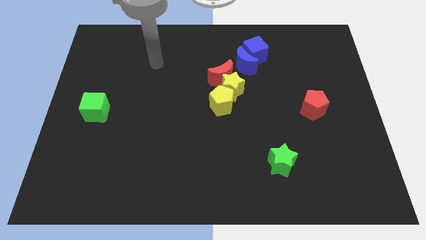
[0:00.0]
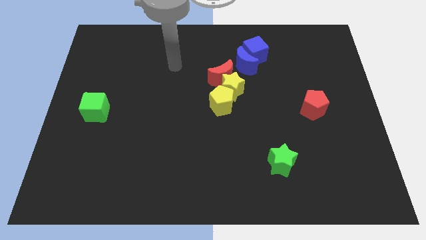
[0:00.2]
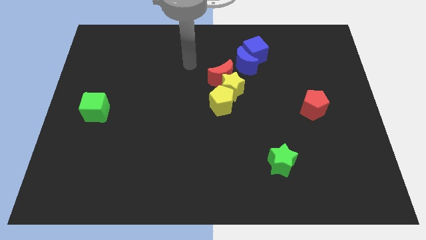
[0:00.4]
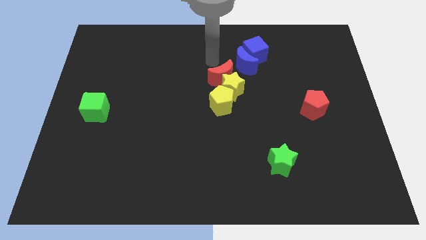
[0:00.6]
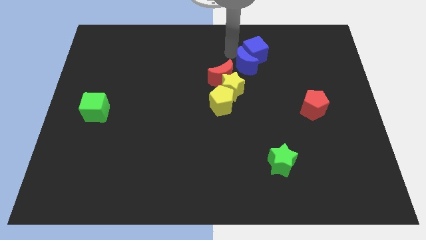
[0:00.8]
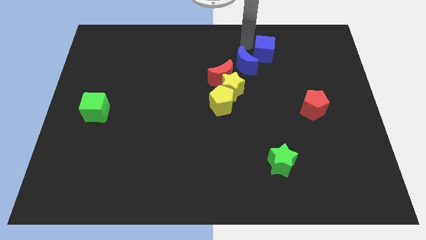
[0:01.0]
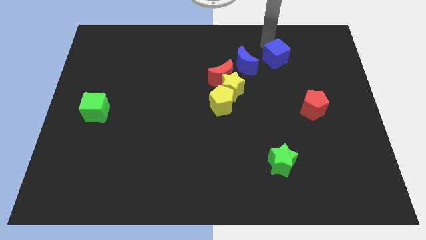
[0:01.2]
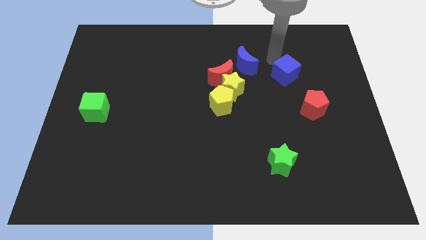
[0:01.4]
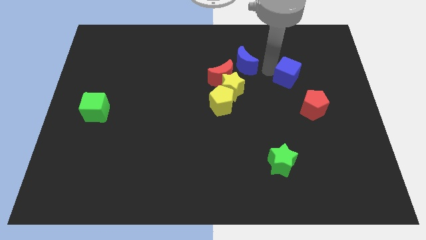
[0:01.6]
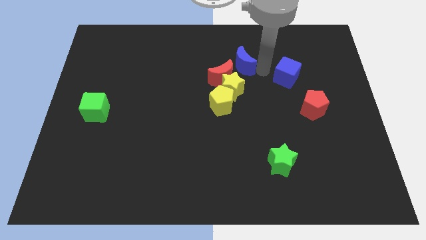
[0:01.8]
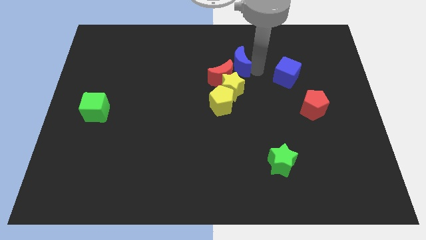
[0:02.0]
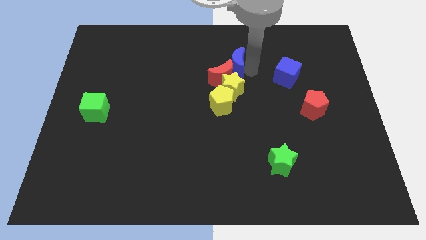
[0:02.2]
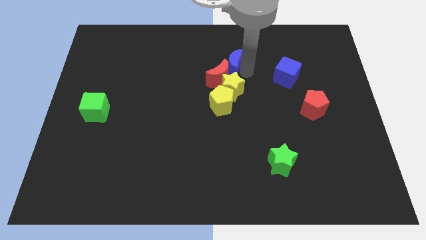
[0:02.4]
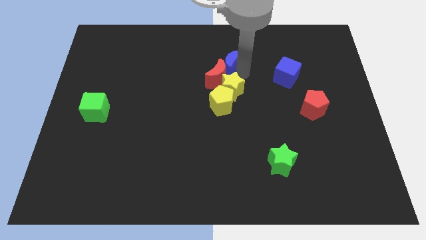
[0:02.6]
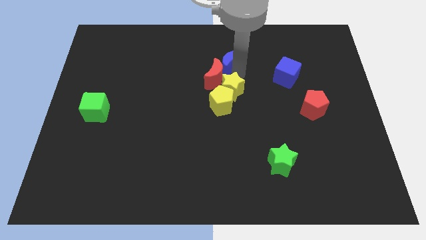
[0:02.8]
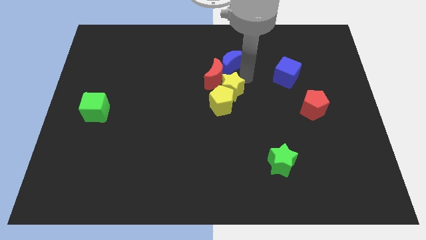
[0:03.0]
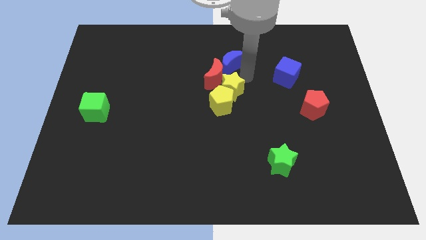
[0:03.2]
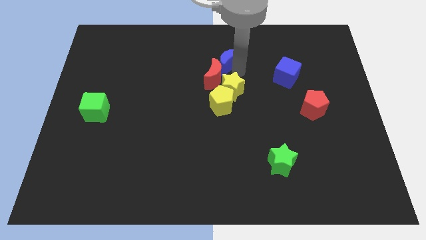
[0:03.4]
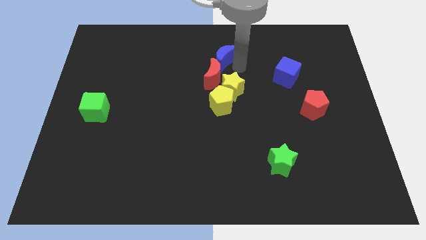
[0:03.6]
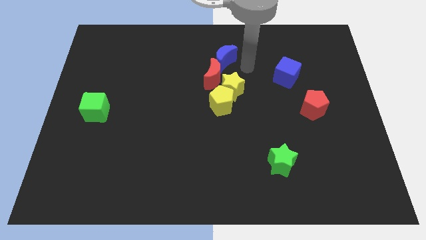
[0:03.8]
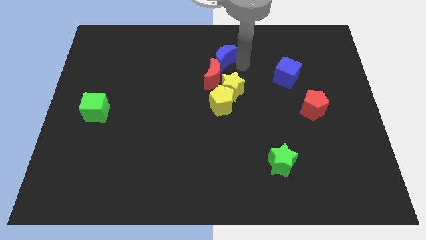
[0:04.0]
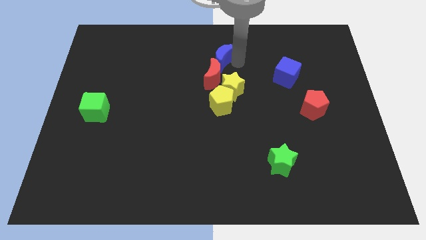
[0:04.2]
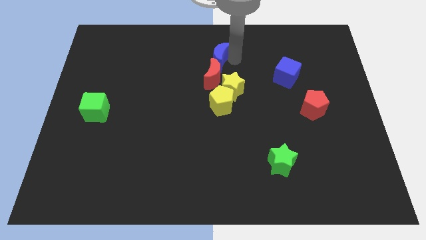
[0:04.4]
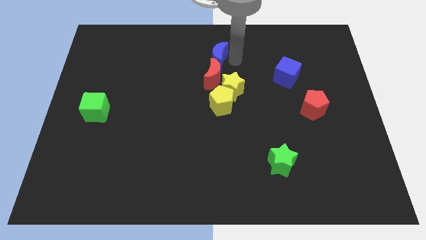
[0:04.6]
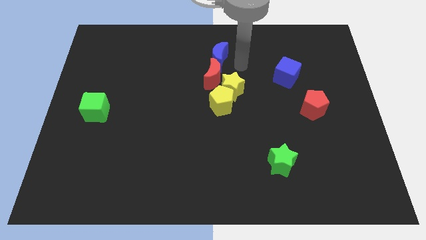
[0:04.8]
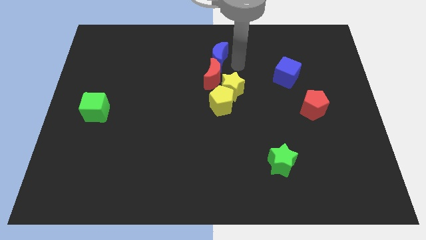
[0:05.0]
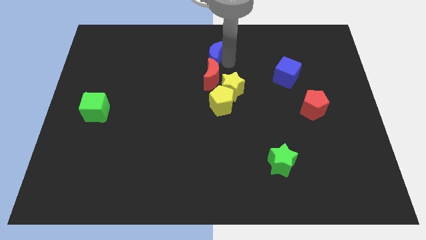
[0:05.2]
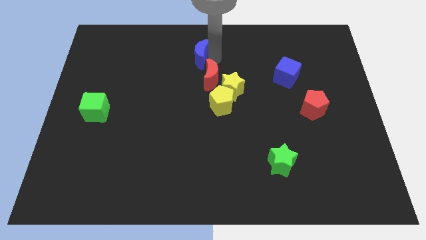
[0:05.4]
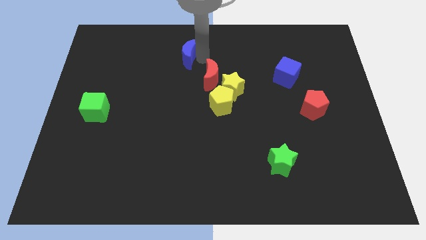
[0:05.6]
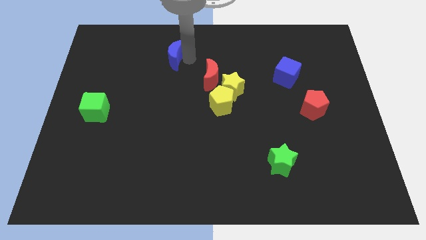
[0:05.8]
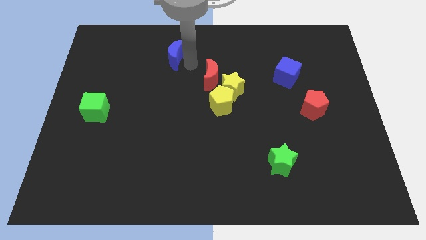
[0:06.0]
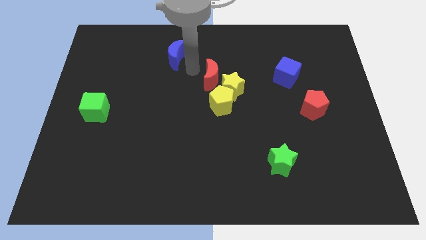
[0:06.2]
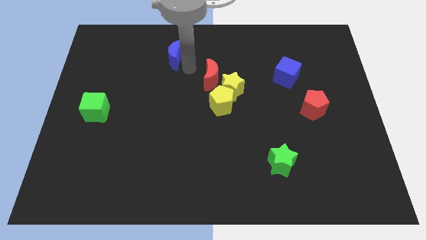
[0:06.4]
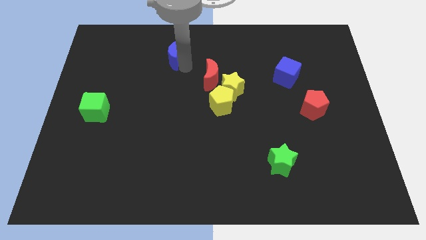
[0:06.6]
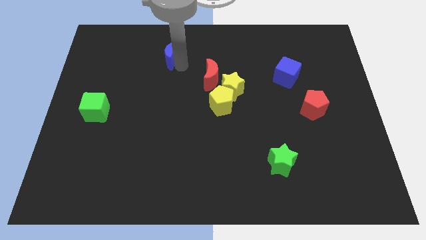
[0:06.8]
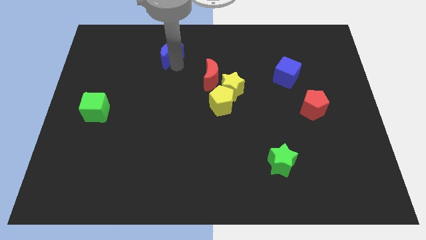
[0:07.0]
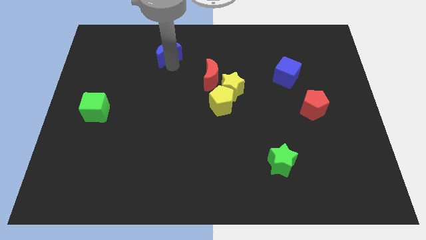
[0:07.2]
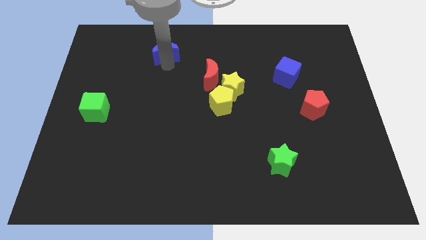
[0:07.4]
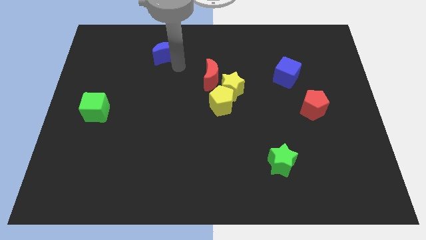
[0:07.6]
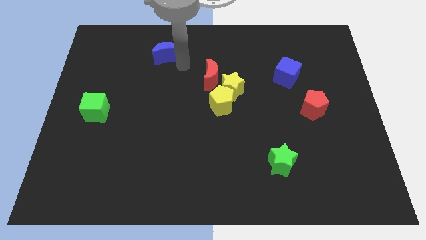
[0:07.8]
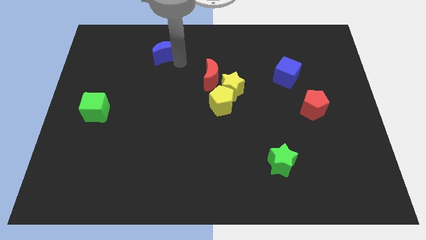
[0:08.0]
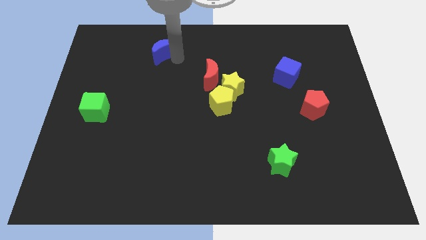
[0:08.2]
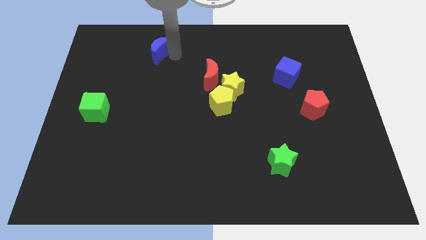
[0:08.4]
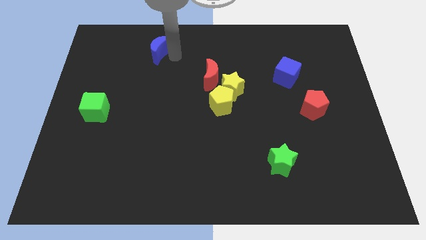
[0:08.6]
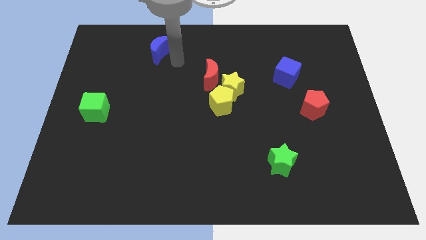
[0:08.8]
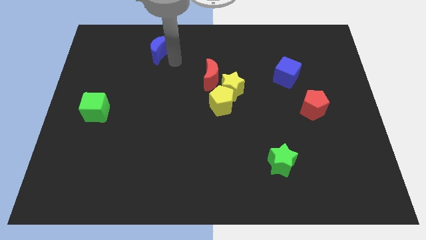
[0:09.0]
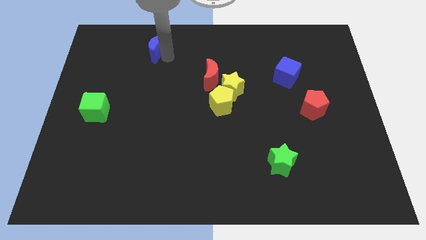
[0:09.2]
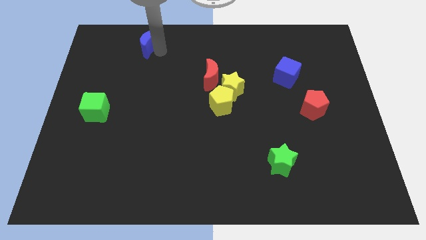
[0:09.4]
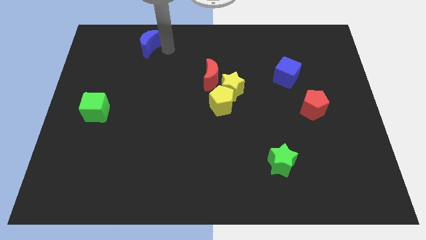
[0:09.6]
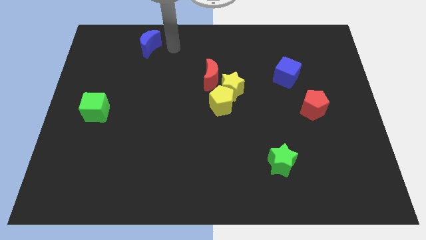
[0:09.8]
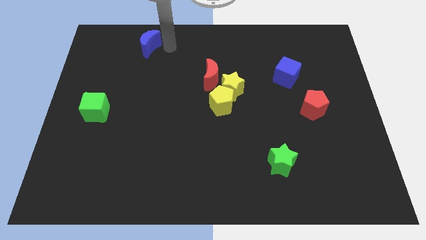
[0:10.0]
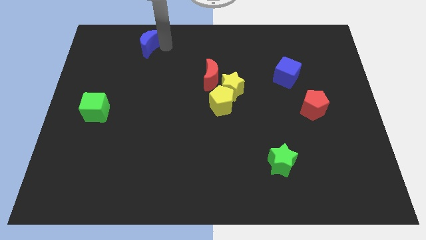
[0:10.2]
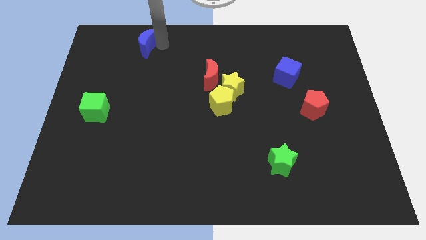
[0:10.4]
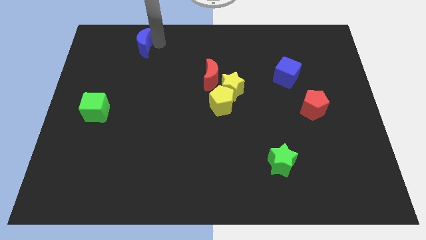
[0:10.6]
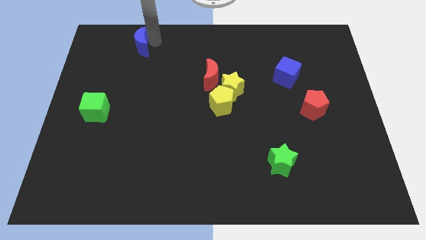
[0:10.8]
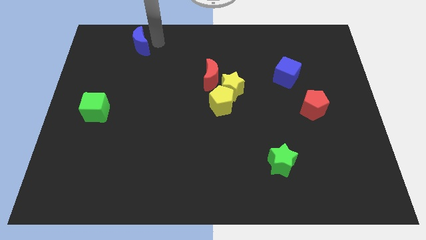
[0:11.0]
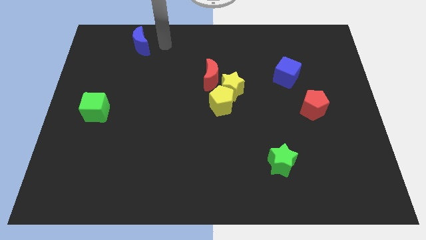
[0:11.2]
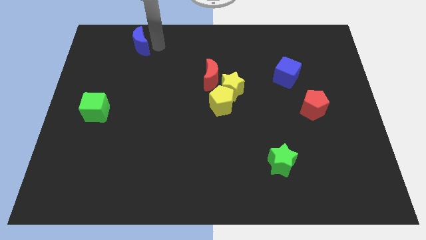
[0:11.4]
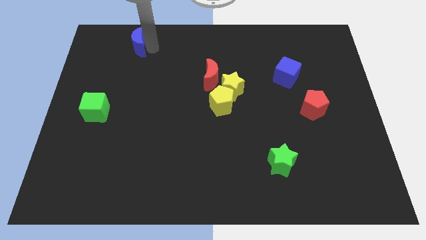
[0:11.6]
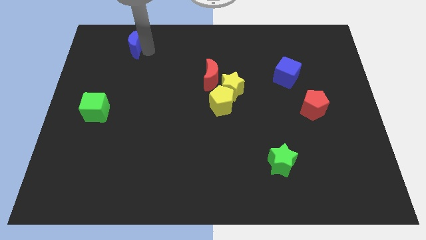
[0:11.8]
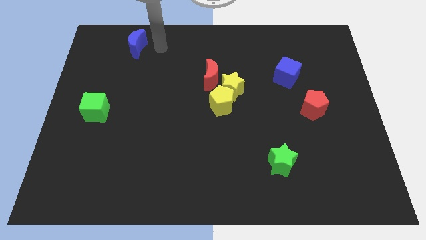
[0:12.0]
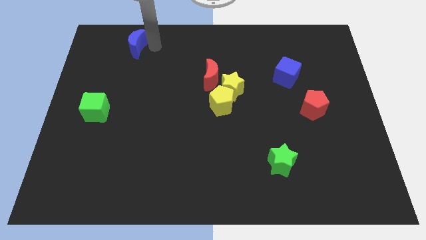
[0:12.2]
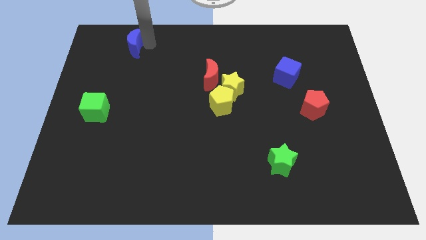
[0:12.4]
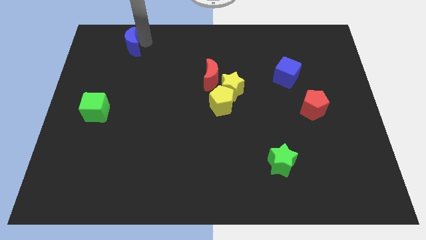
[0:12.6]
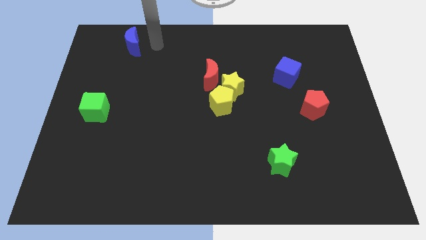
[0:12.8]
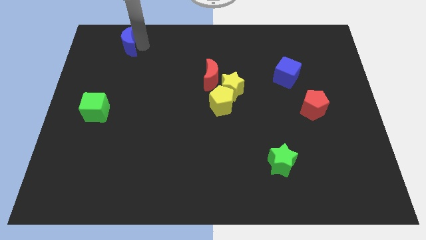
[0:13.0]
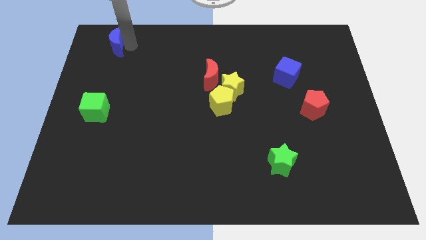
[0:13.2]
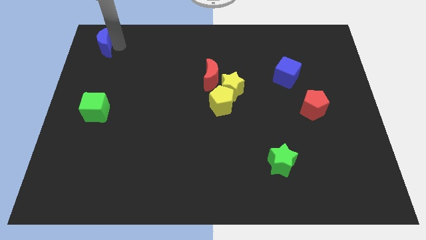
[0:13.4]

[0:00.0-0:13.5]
put the blue moon to the top left corner

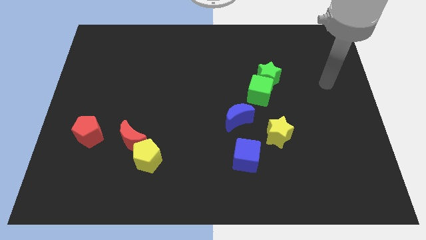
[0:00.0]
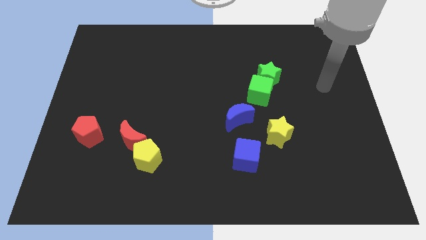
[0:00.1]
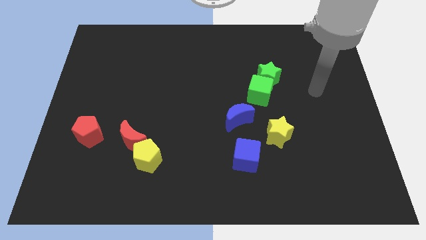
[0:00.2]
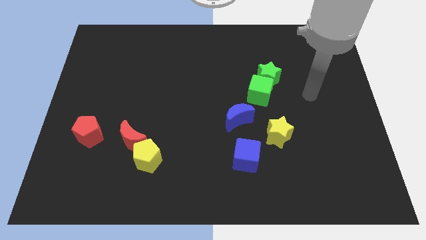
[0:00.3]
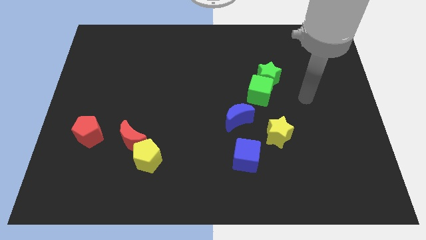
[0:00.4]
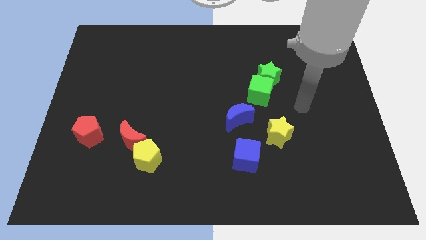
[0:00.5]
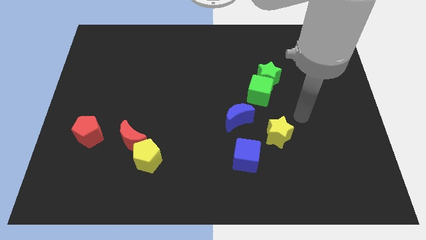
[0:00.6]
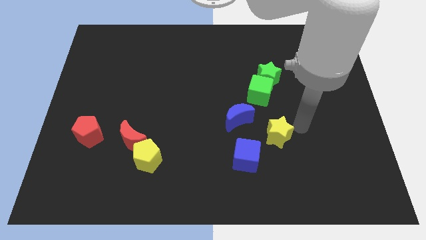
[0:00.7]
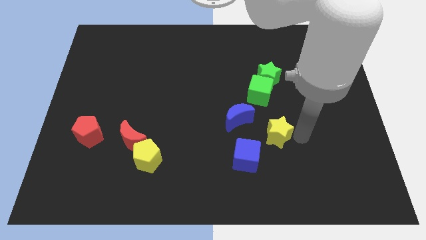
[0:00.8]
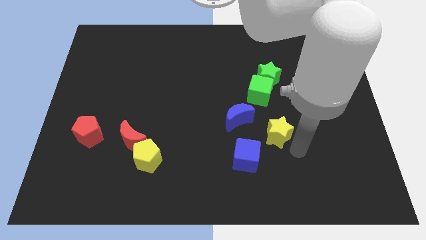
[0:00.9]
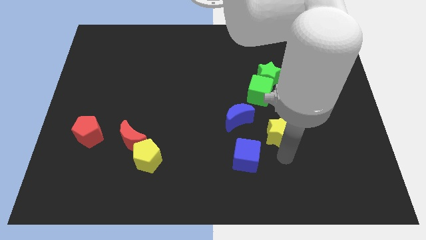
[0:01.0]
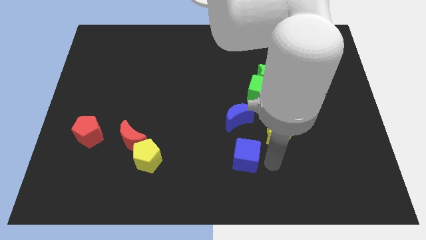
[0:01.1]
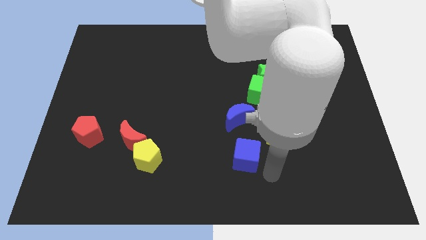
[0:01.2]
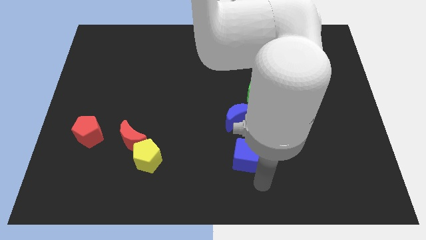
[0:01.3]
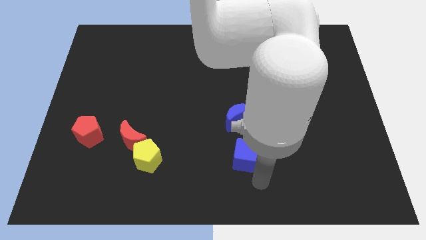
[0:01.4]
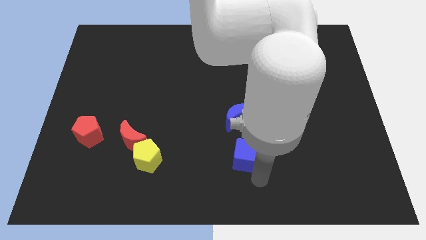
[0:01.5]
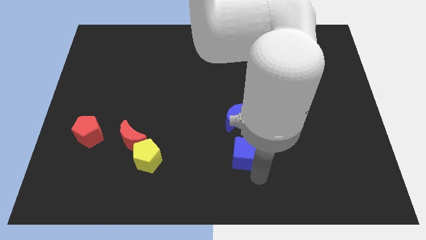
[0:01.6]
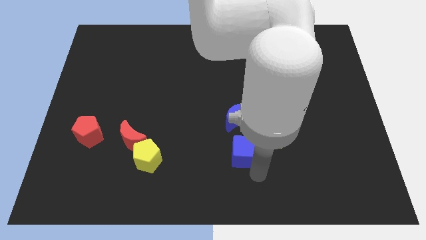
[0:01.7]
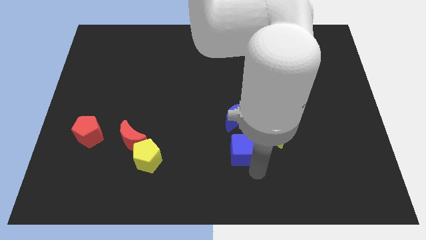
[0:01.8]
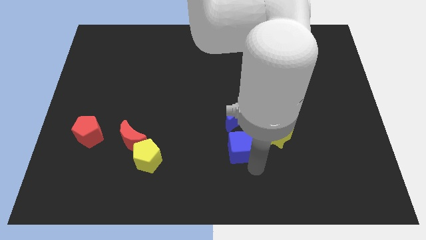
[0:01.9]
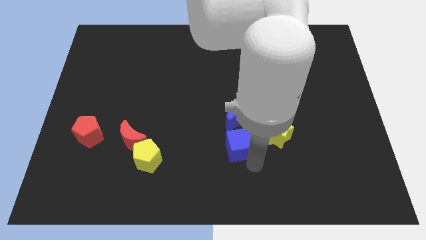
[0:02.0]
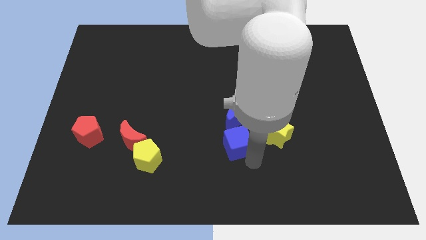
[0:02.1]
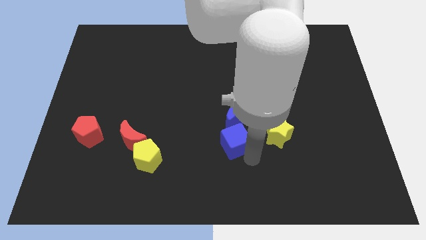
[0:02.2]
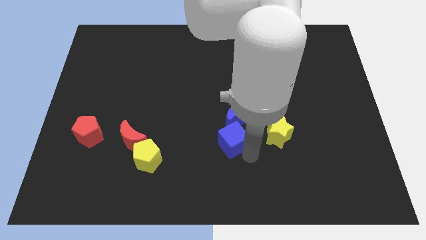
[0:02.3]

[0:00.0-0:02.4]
push the blue cube to the center
